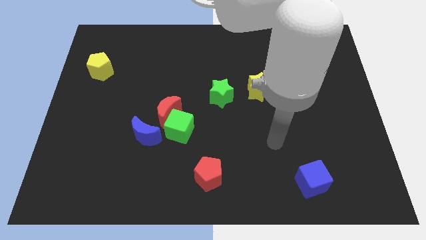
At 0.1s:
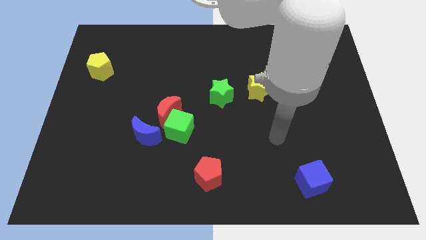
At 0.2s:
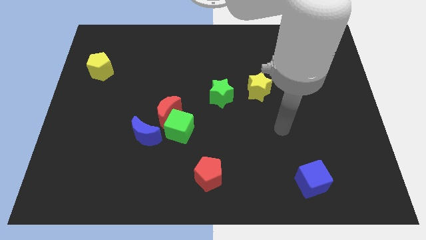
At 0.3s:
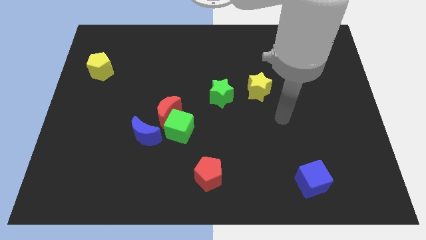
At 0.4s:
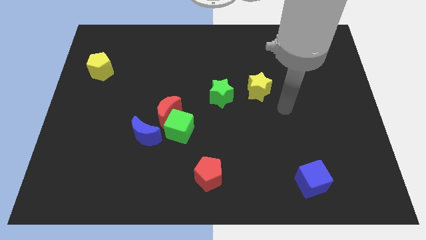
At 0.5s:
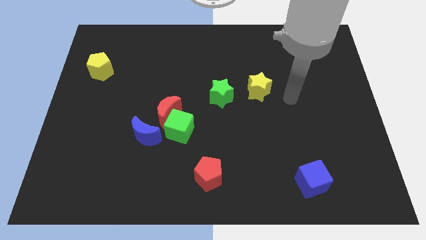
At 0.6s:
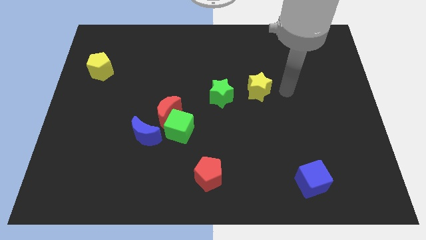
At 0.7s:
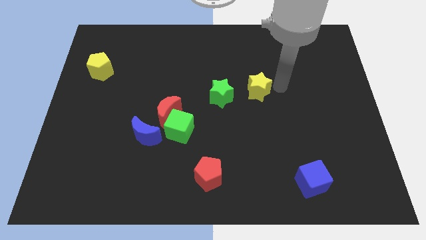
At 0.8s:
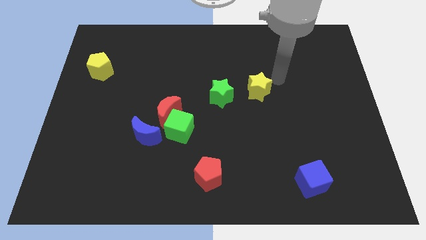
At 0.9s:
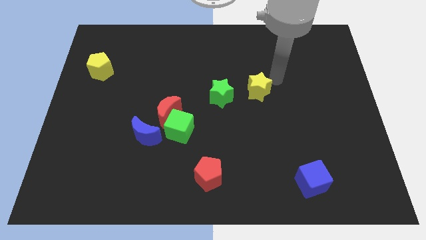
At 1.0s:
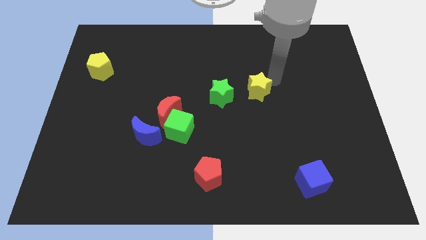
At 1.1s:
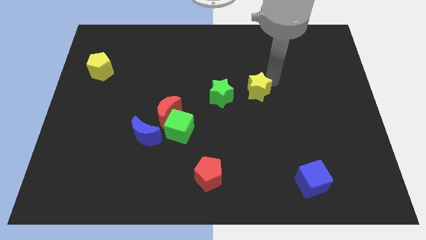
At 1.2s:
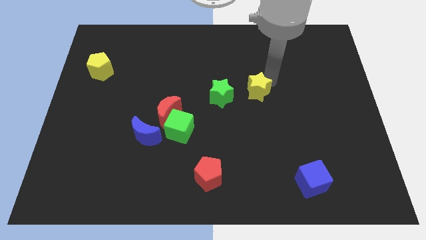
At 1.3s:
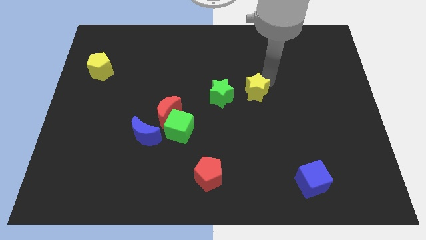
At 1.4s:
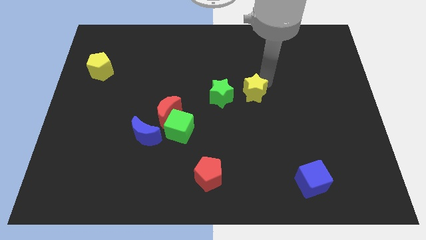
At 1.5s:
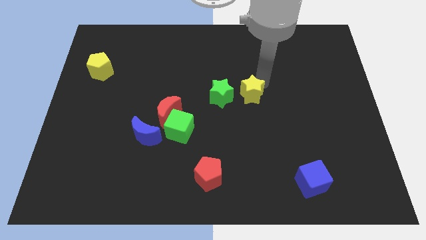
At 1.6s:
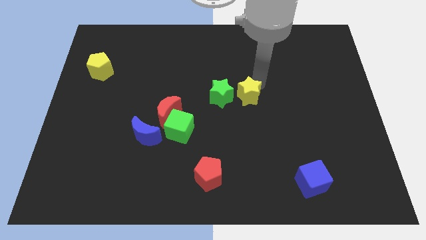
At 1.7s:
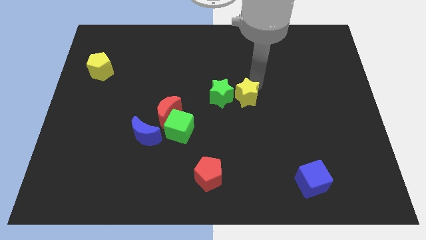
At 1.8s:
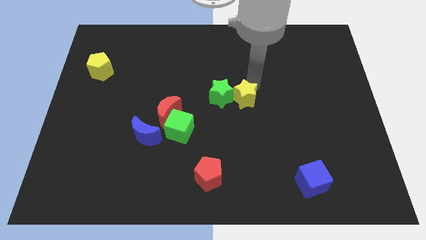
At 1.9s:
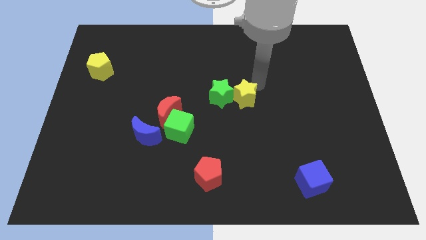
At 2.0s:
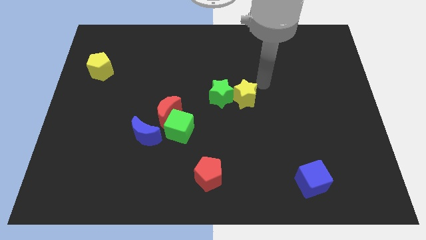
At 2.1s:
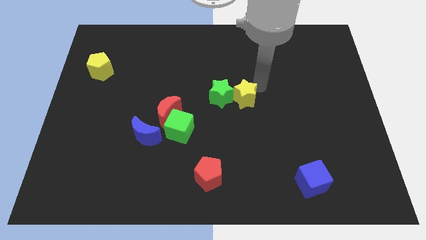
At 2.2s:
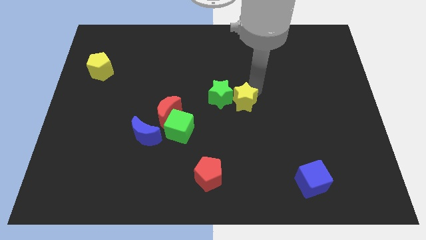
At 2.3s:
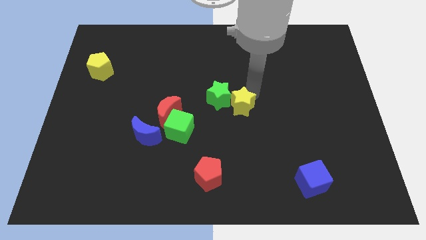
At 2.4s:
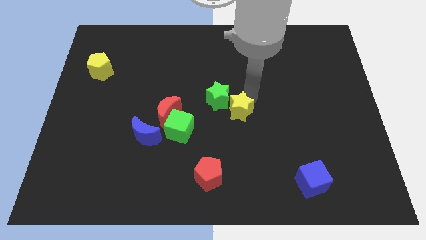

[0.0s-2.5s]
move the yellow star a bit down and then left

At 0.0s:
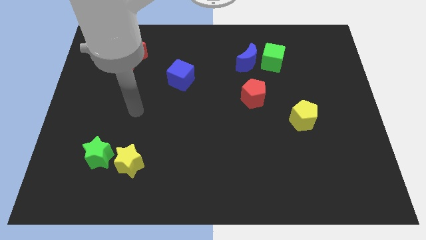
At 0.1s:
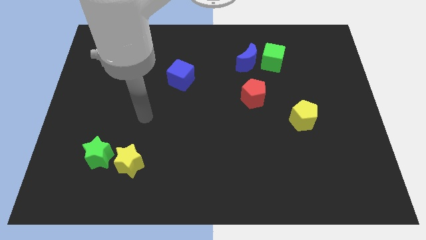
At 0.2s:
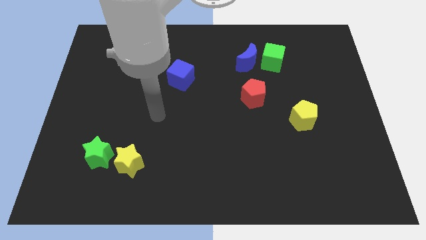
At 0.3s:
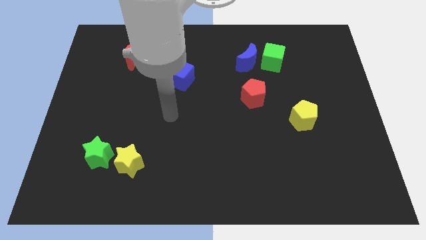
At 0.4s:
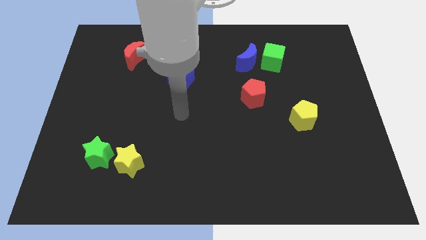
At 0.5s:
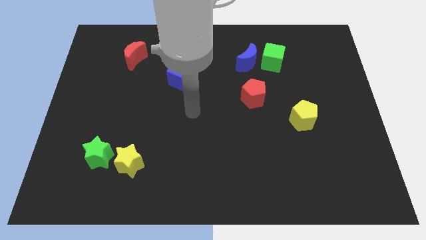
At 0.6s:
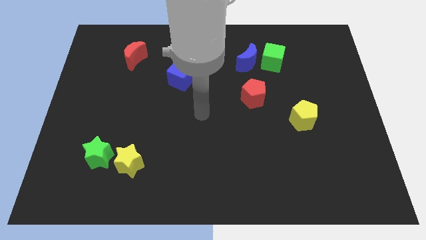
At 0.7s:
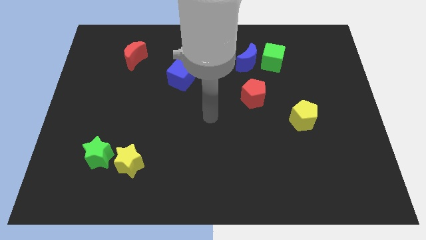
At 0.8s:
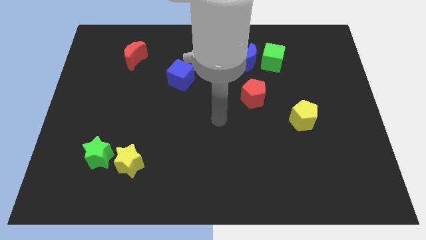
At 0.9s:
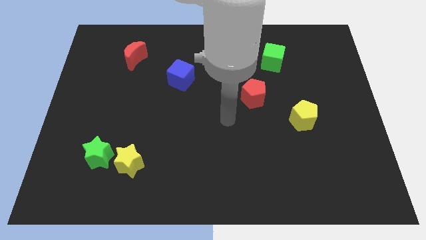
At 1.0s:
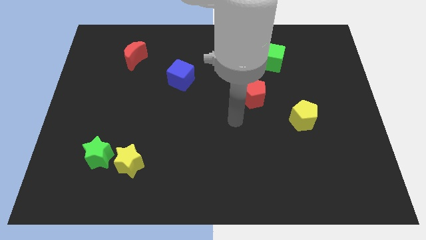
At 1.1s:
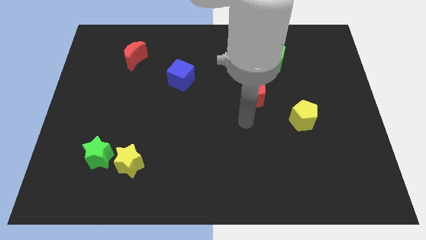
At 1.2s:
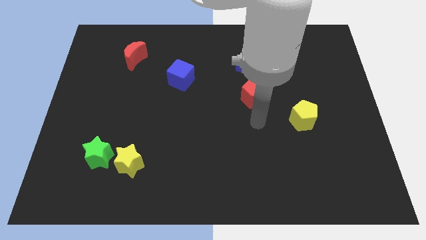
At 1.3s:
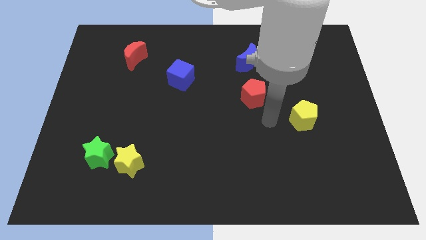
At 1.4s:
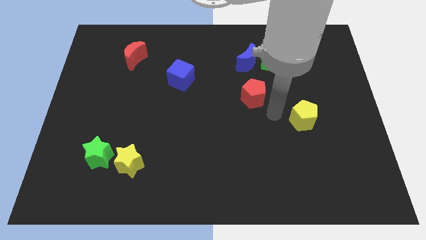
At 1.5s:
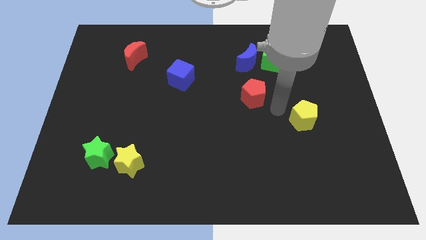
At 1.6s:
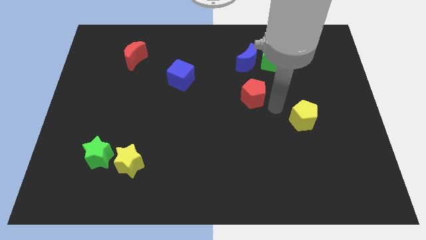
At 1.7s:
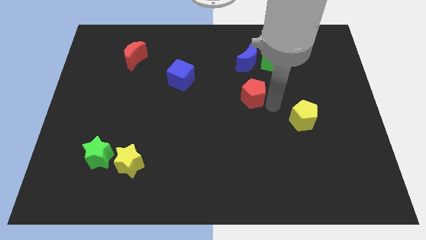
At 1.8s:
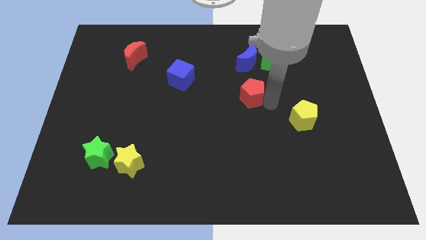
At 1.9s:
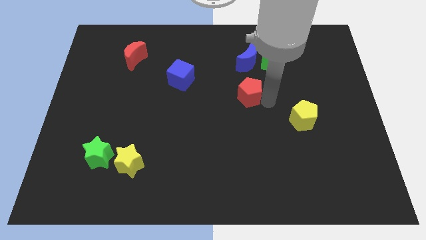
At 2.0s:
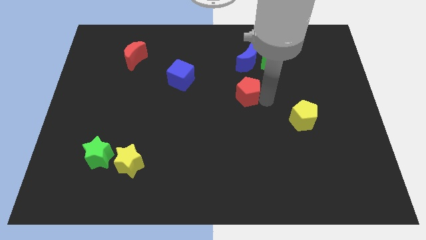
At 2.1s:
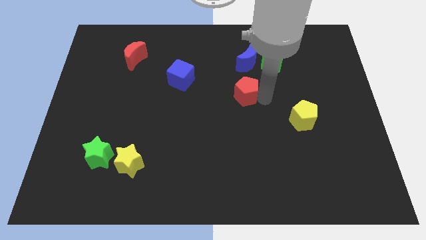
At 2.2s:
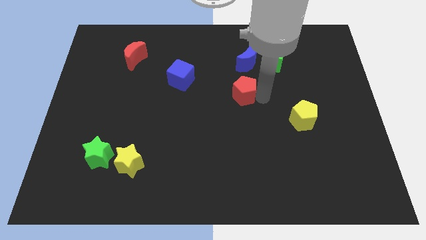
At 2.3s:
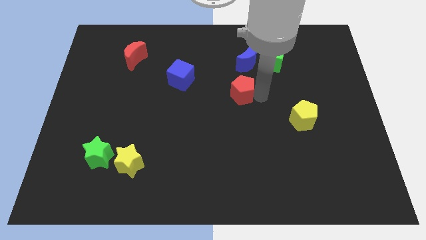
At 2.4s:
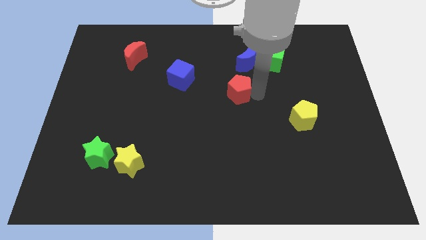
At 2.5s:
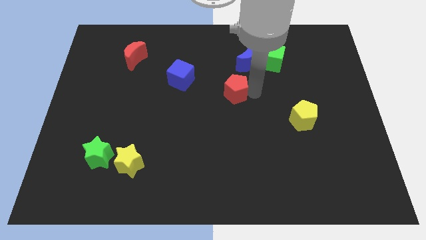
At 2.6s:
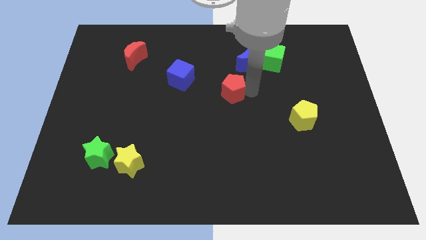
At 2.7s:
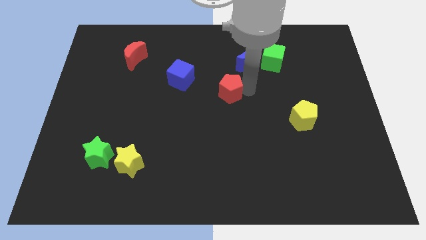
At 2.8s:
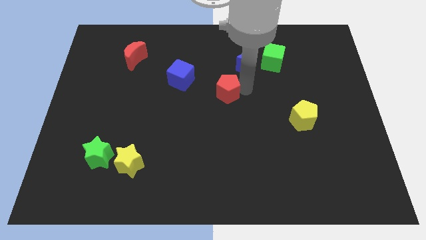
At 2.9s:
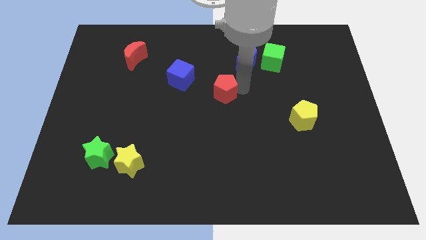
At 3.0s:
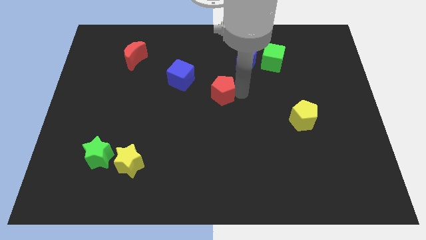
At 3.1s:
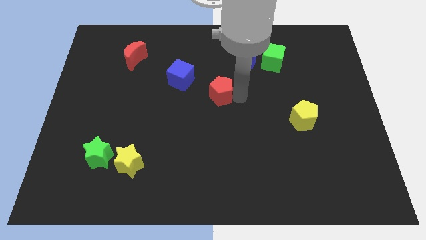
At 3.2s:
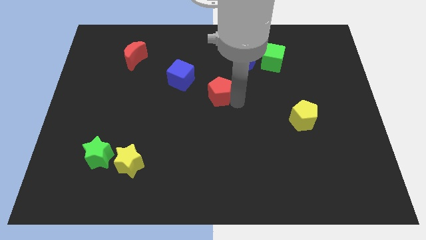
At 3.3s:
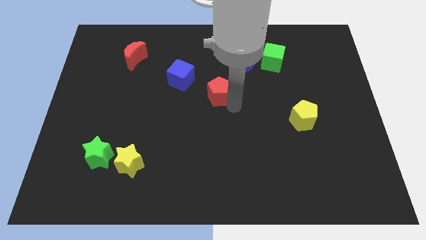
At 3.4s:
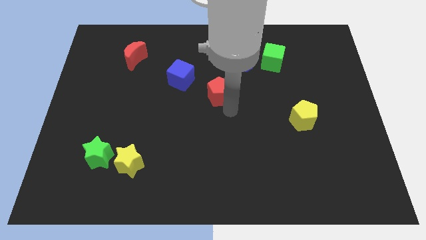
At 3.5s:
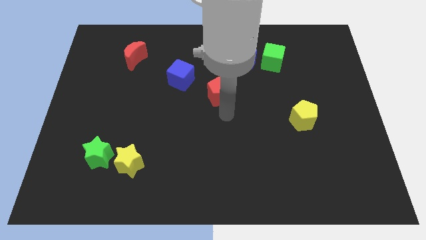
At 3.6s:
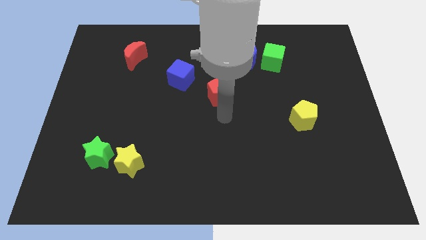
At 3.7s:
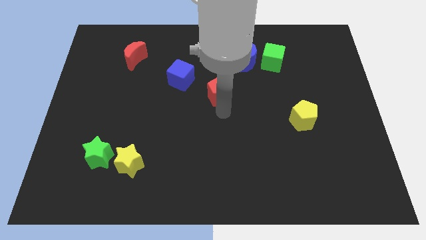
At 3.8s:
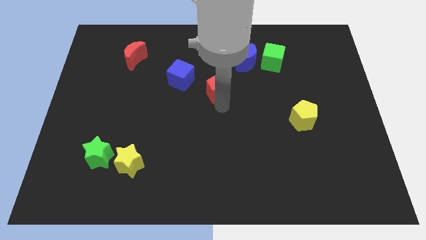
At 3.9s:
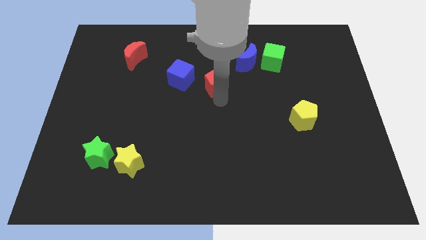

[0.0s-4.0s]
push the red pentagon somewhat upwards and to the left diagonally

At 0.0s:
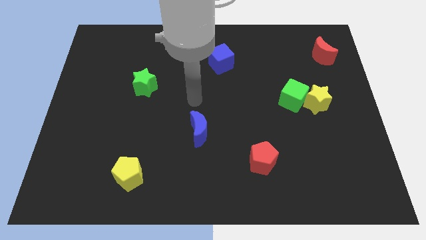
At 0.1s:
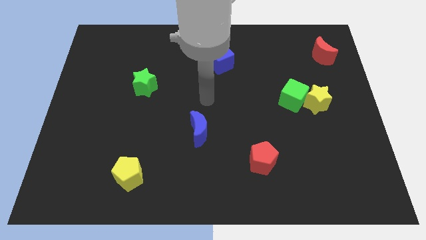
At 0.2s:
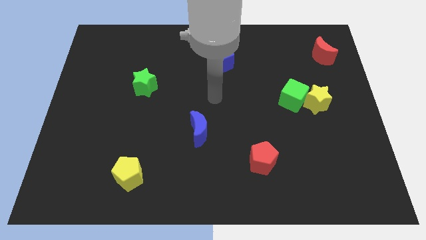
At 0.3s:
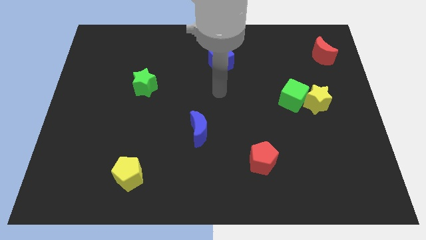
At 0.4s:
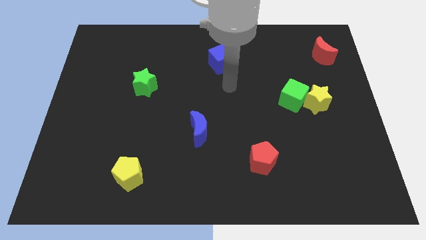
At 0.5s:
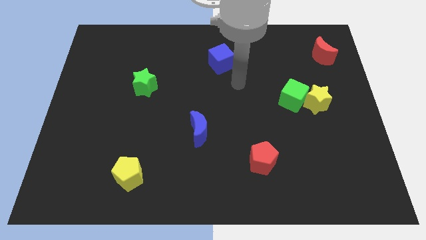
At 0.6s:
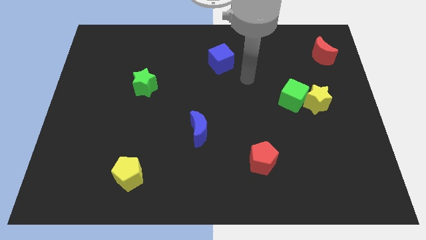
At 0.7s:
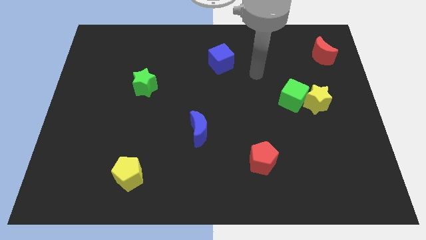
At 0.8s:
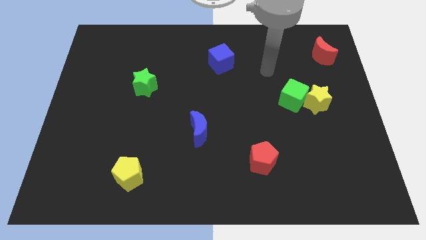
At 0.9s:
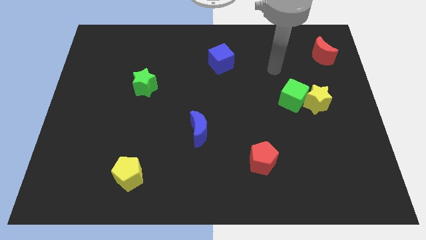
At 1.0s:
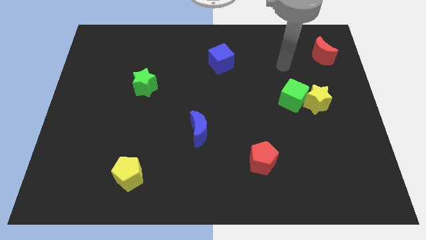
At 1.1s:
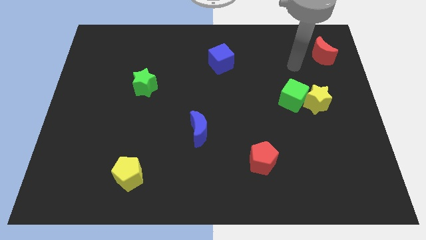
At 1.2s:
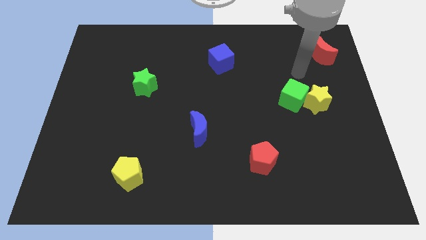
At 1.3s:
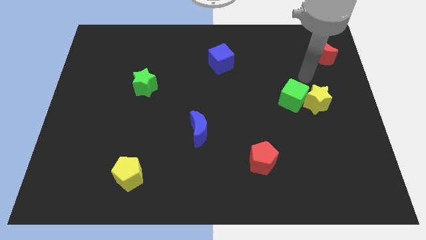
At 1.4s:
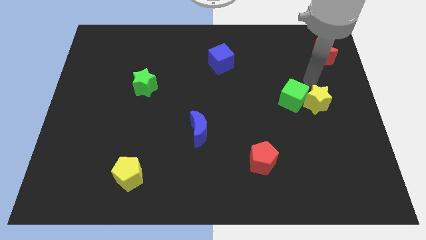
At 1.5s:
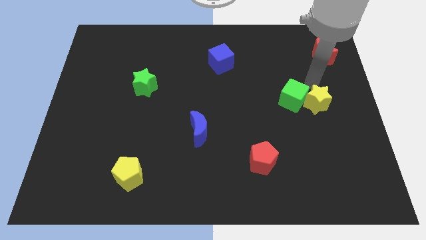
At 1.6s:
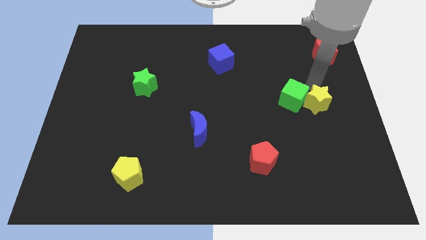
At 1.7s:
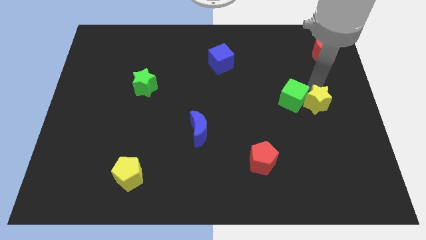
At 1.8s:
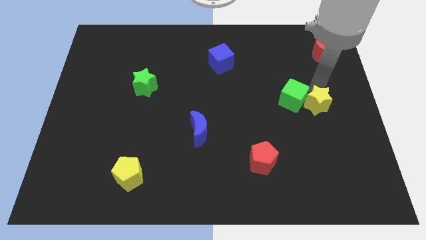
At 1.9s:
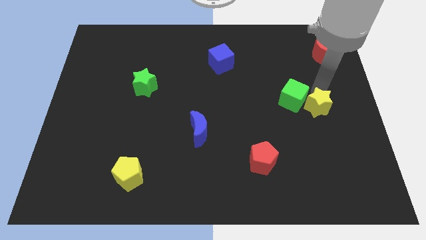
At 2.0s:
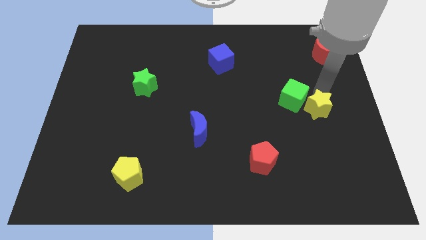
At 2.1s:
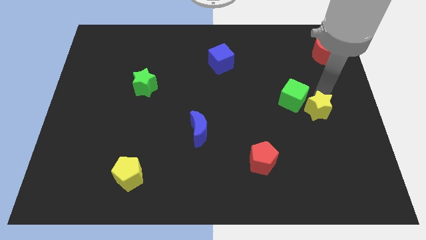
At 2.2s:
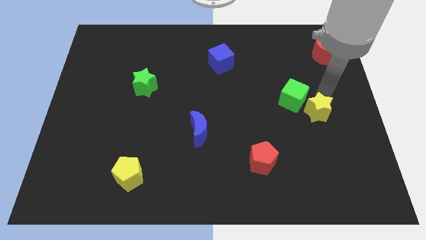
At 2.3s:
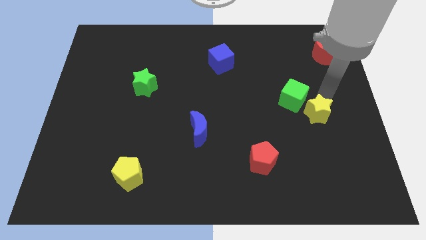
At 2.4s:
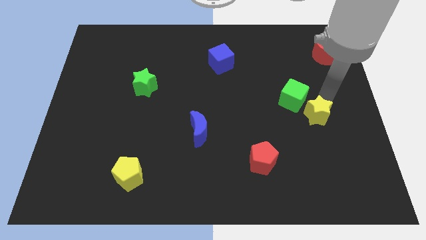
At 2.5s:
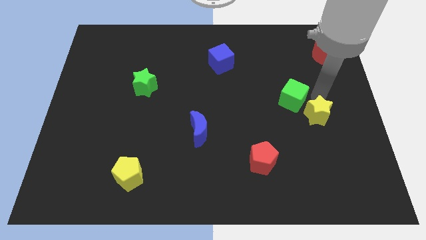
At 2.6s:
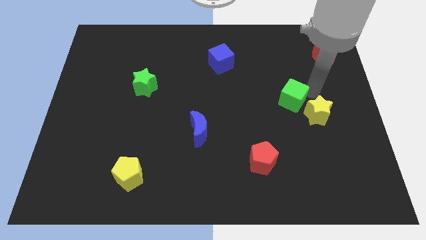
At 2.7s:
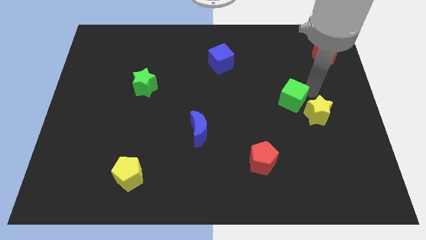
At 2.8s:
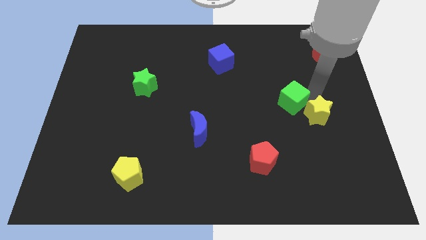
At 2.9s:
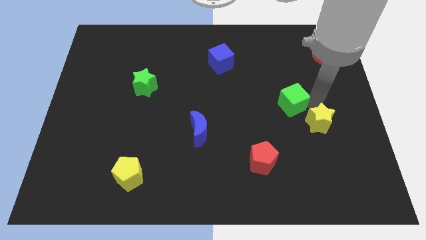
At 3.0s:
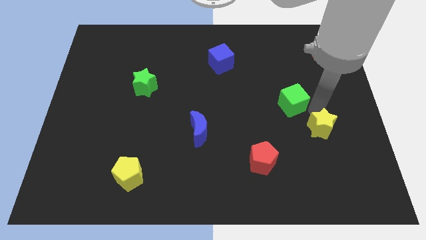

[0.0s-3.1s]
slightly move the yellow star down
